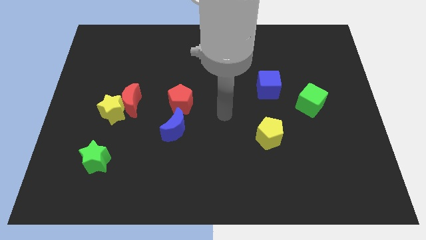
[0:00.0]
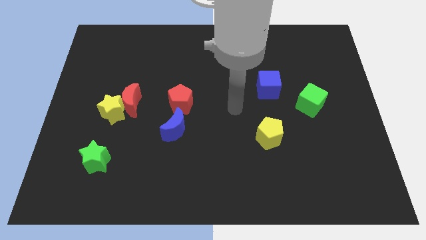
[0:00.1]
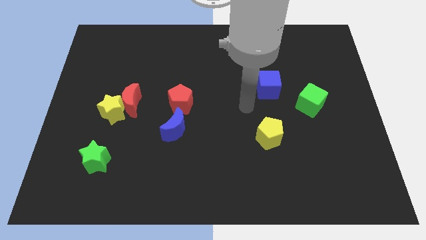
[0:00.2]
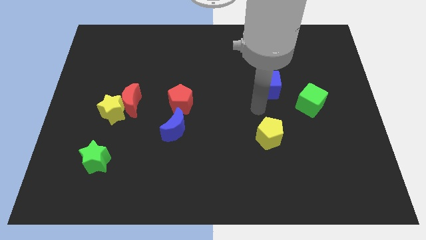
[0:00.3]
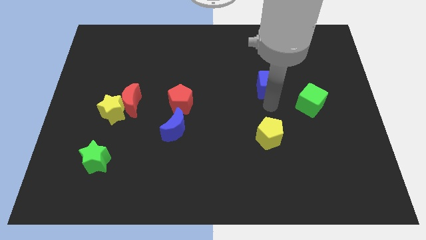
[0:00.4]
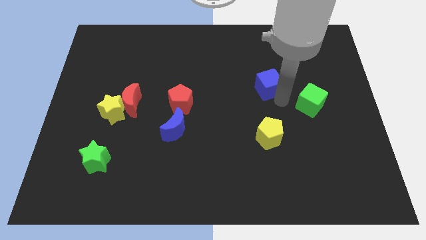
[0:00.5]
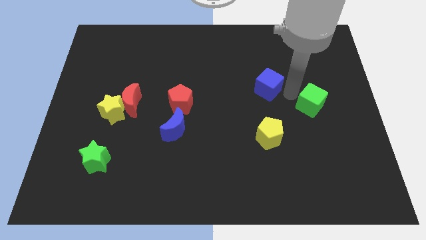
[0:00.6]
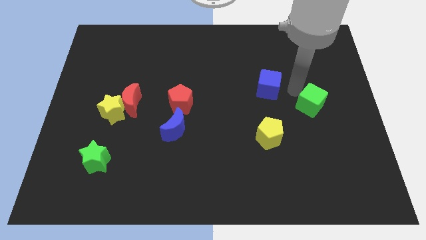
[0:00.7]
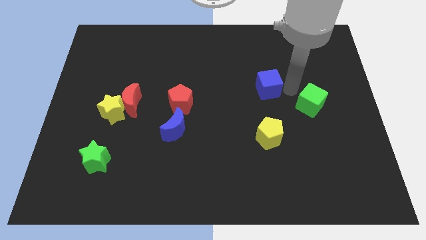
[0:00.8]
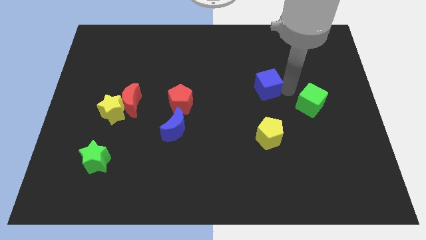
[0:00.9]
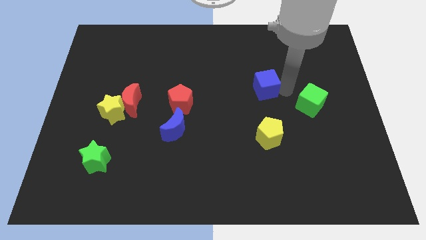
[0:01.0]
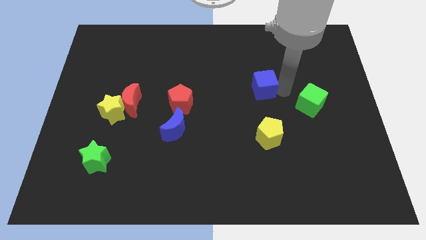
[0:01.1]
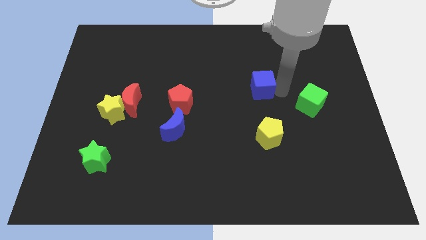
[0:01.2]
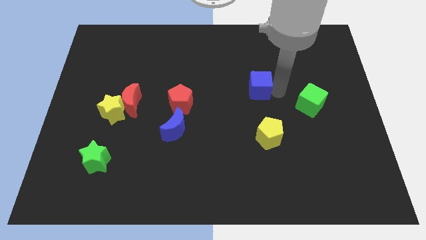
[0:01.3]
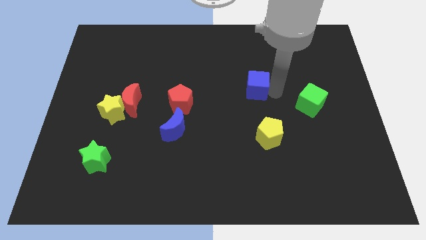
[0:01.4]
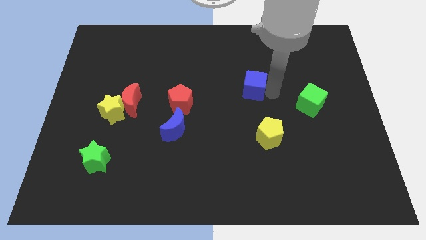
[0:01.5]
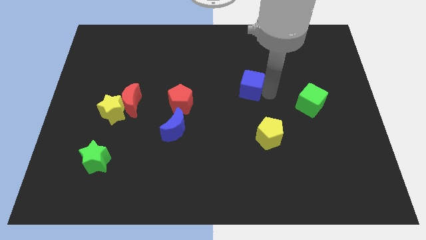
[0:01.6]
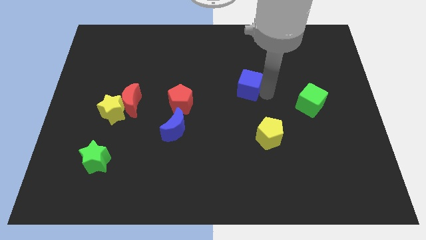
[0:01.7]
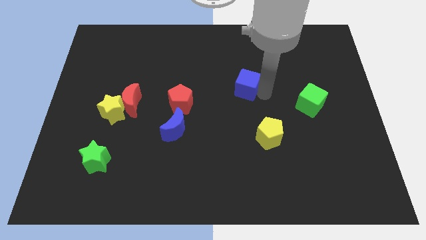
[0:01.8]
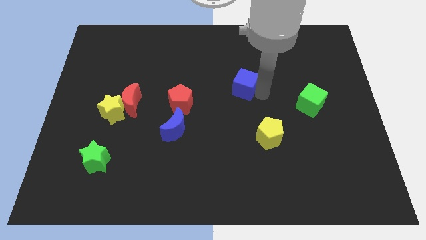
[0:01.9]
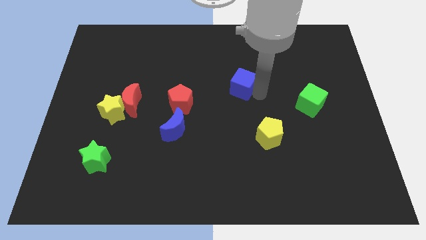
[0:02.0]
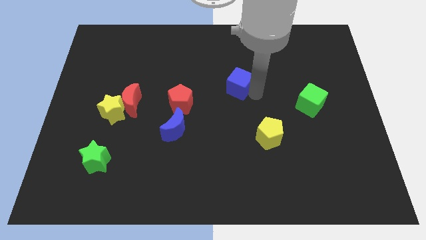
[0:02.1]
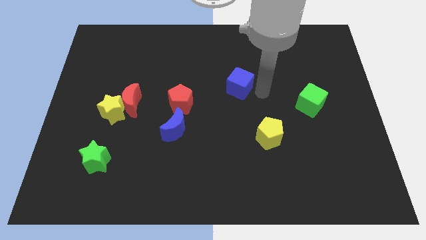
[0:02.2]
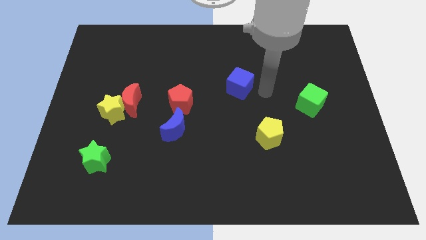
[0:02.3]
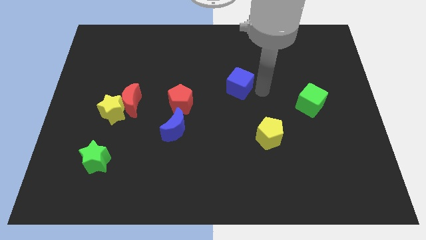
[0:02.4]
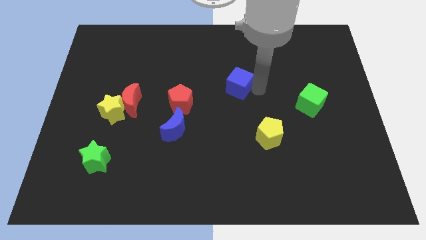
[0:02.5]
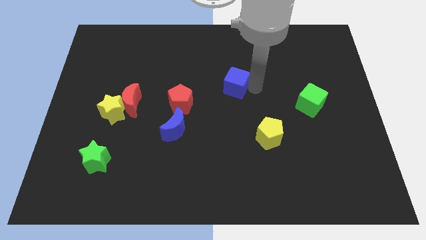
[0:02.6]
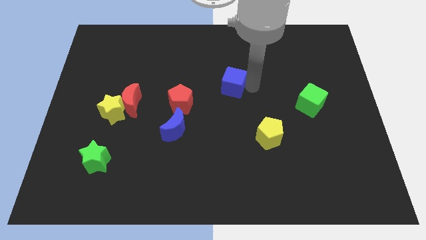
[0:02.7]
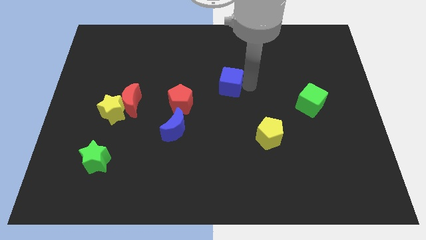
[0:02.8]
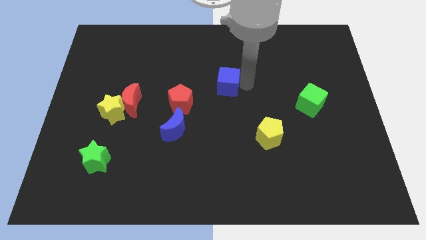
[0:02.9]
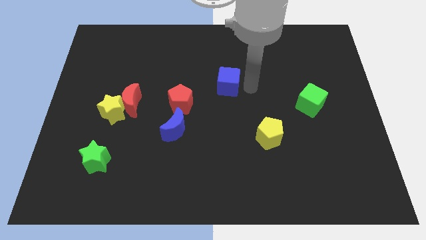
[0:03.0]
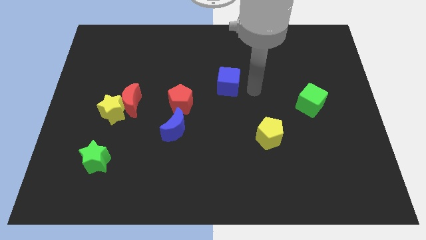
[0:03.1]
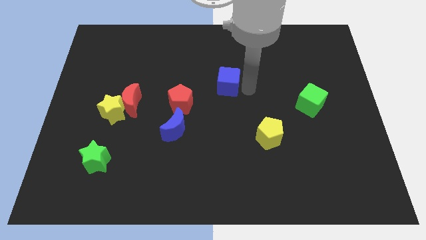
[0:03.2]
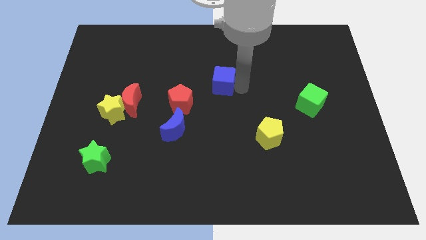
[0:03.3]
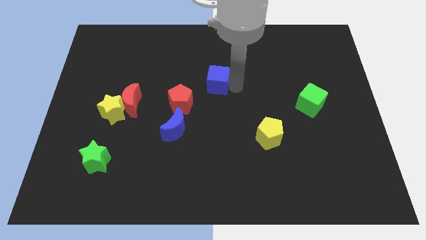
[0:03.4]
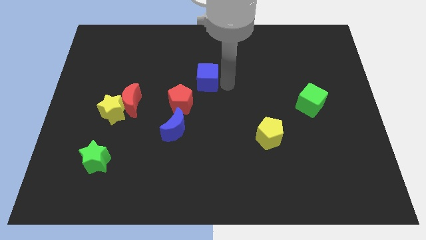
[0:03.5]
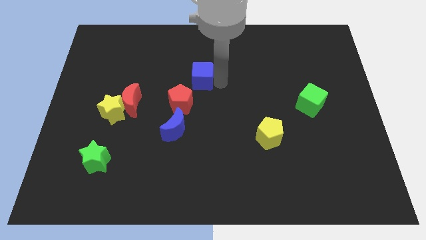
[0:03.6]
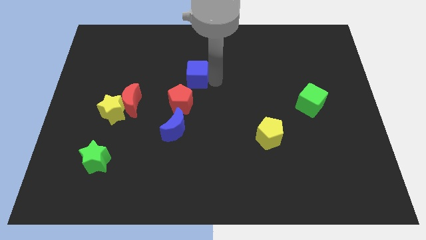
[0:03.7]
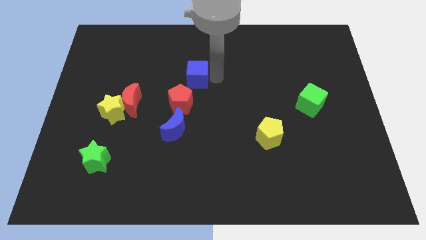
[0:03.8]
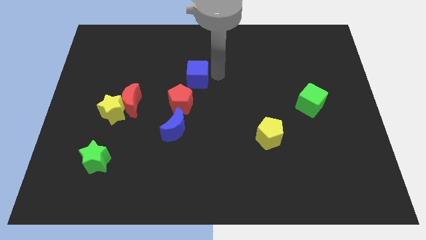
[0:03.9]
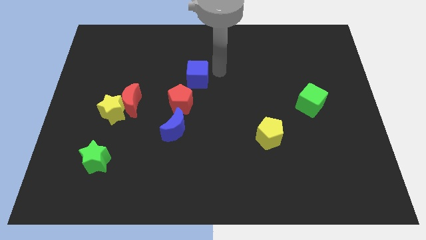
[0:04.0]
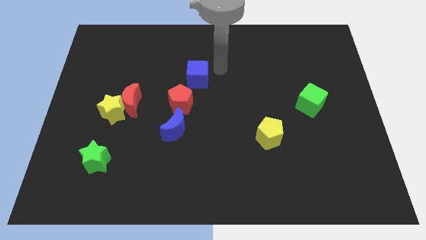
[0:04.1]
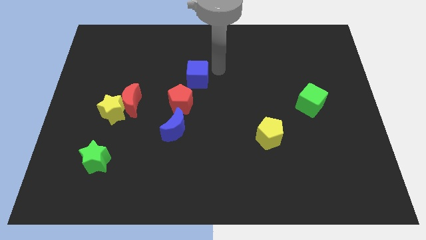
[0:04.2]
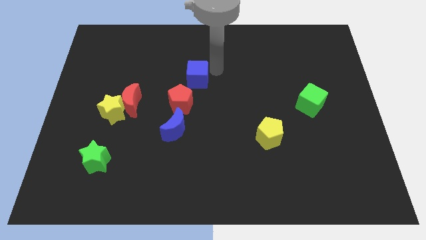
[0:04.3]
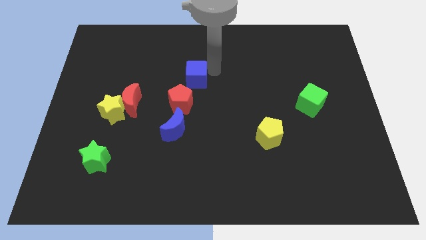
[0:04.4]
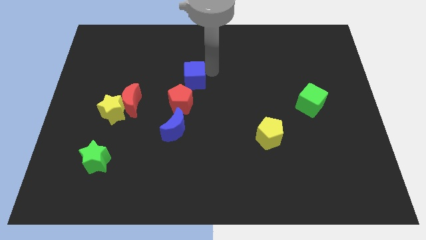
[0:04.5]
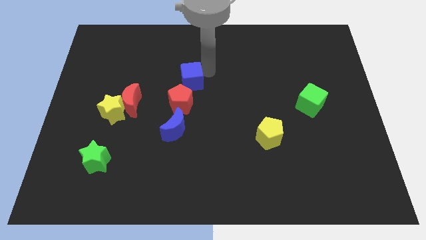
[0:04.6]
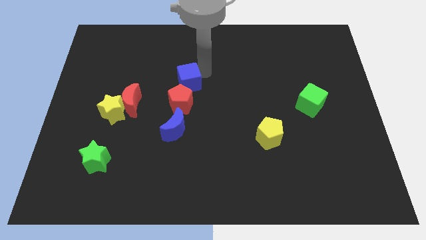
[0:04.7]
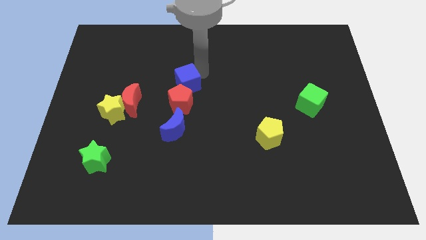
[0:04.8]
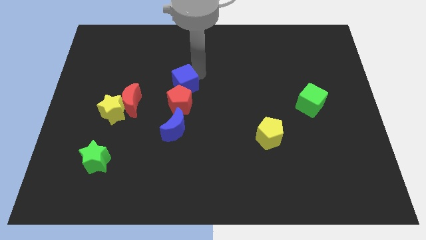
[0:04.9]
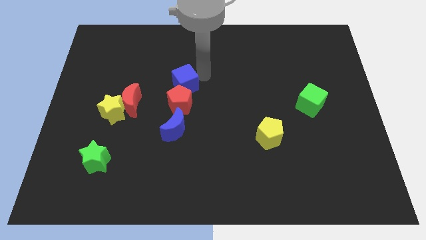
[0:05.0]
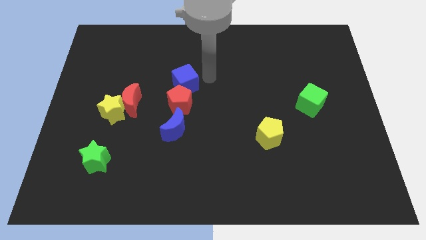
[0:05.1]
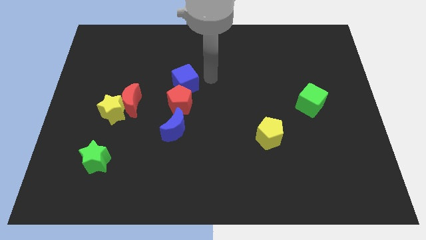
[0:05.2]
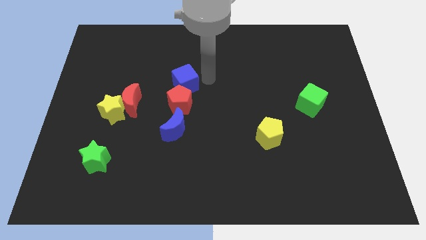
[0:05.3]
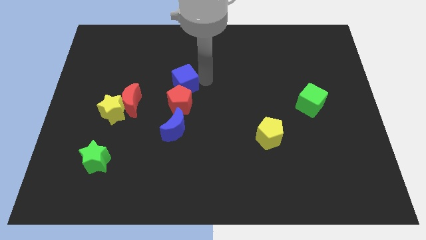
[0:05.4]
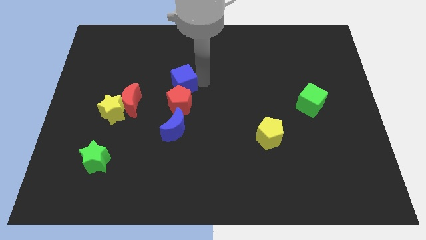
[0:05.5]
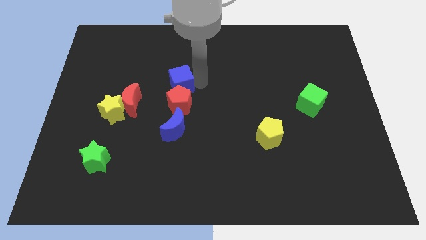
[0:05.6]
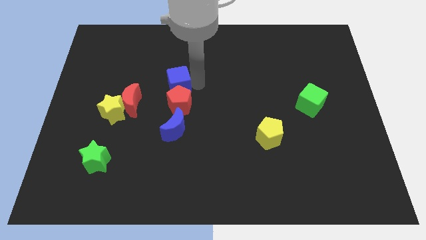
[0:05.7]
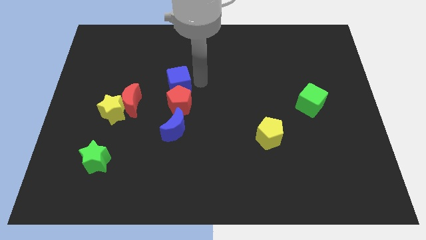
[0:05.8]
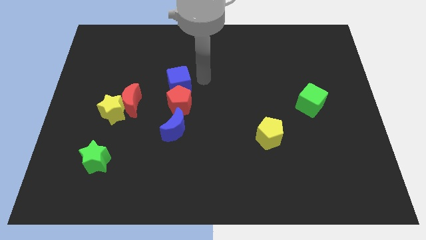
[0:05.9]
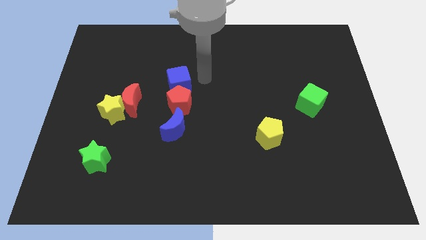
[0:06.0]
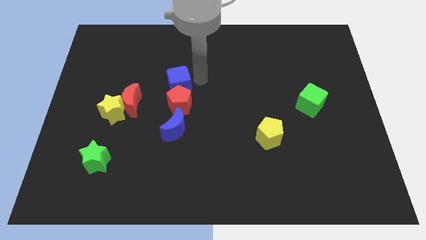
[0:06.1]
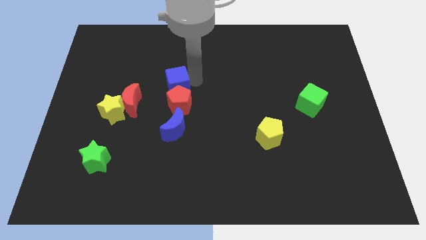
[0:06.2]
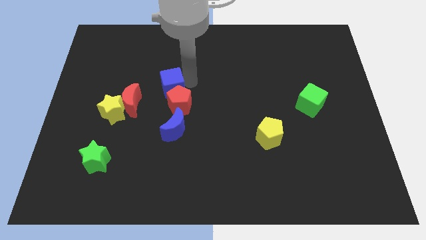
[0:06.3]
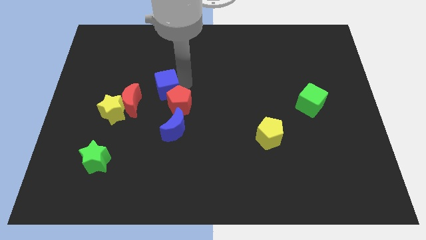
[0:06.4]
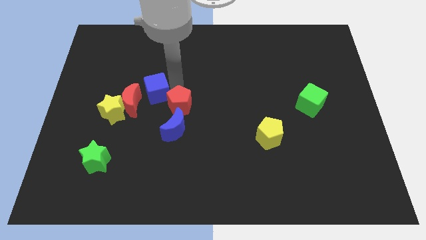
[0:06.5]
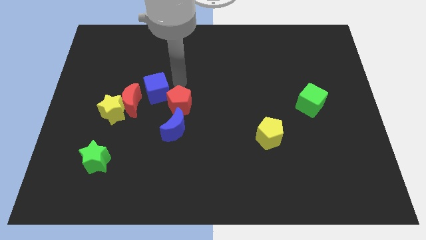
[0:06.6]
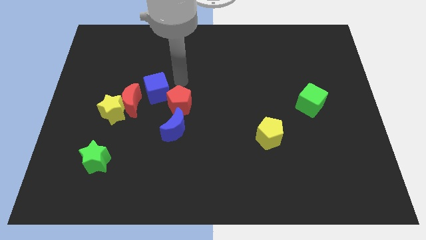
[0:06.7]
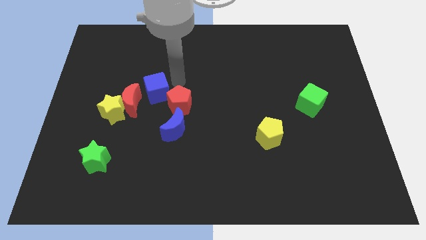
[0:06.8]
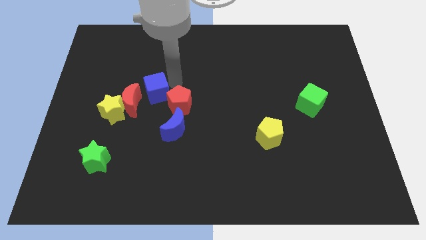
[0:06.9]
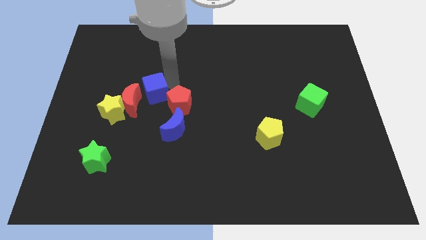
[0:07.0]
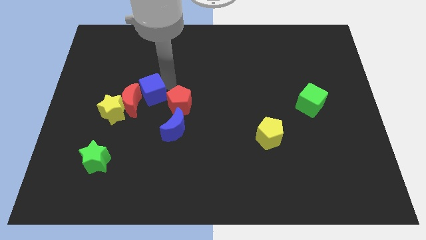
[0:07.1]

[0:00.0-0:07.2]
slide the blue cube next to the red moon
